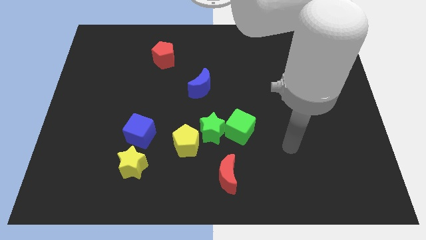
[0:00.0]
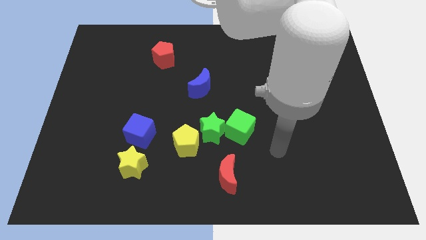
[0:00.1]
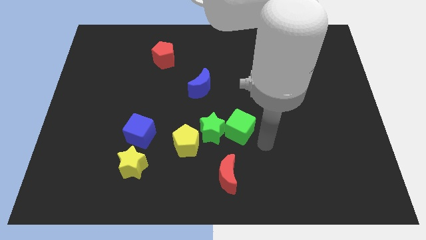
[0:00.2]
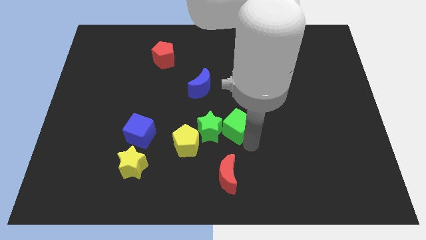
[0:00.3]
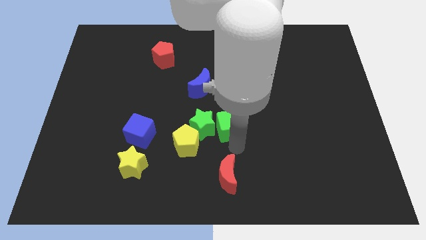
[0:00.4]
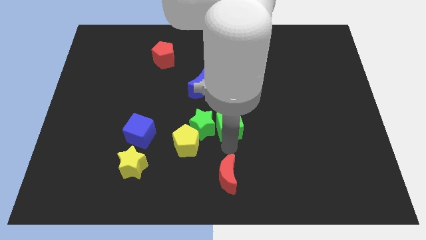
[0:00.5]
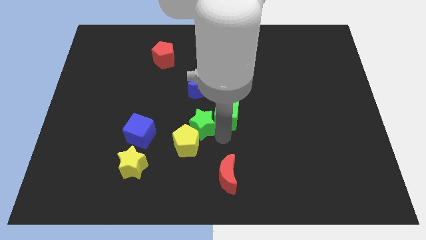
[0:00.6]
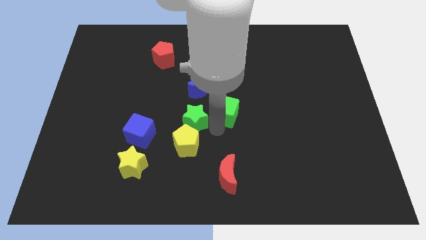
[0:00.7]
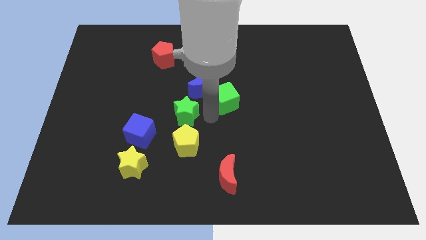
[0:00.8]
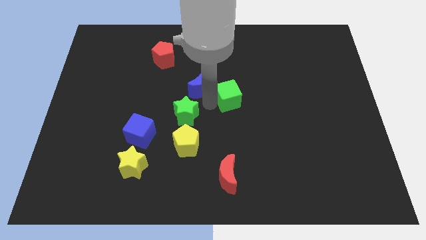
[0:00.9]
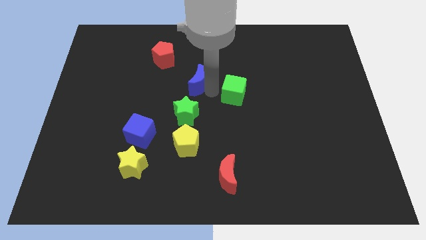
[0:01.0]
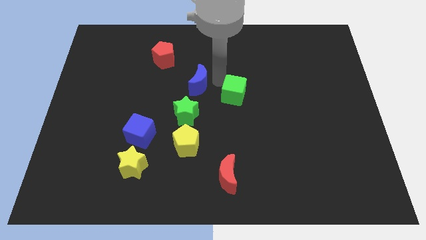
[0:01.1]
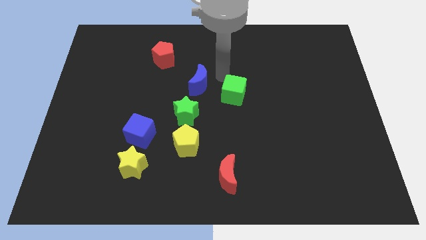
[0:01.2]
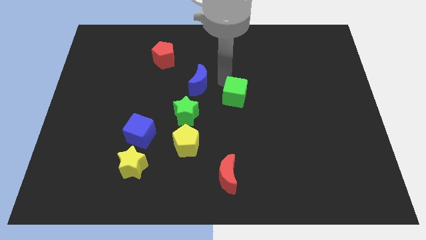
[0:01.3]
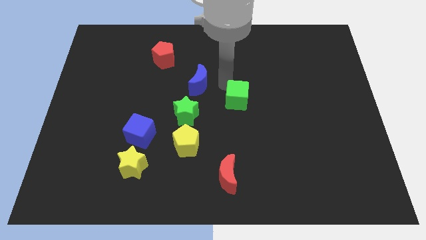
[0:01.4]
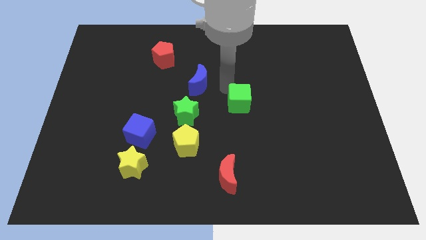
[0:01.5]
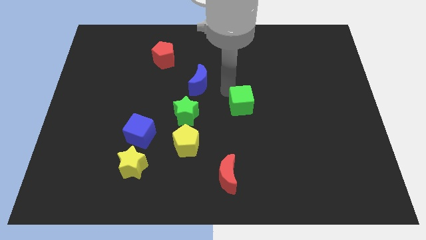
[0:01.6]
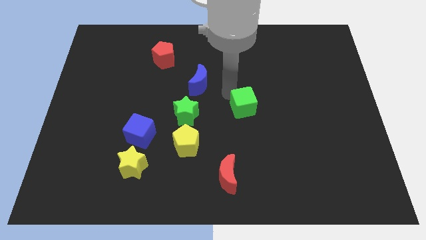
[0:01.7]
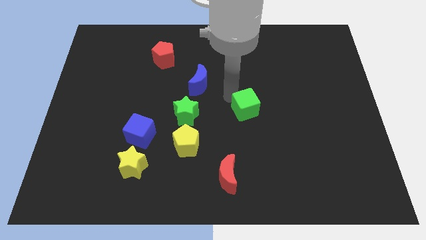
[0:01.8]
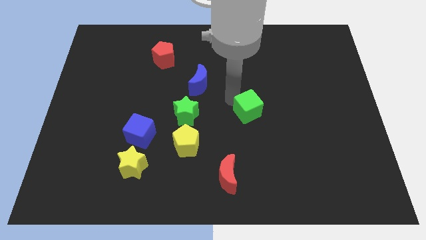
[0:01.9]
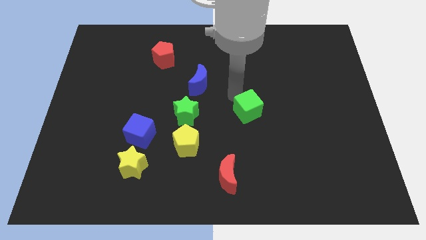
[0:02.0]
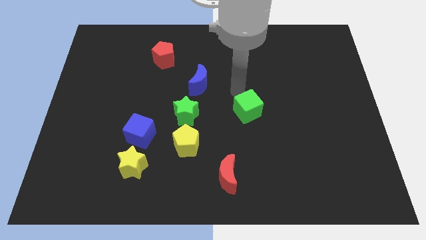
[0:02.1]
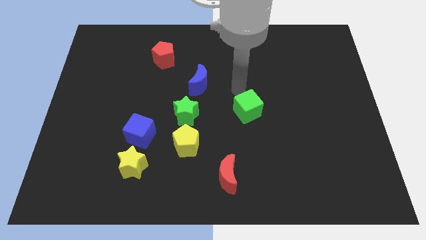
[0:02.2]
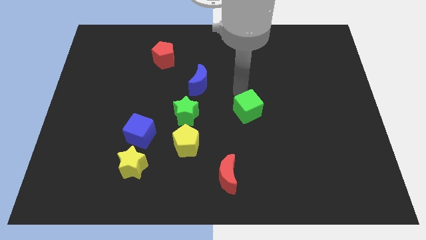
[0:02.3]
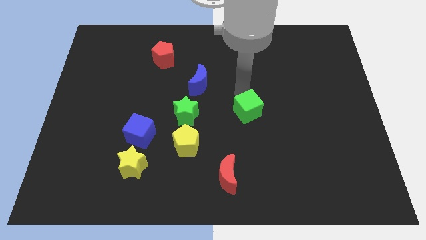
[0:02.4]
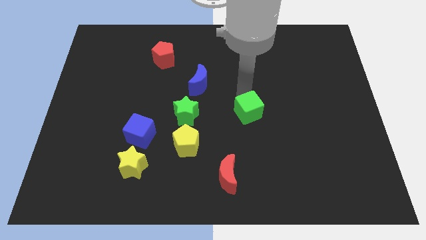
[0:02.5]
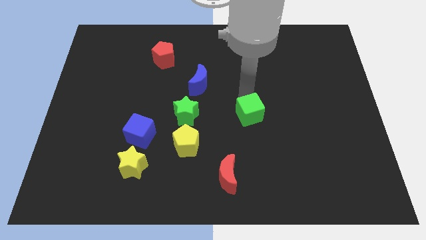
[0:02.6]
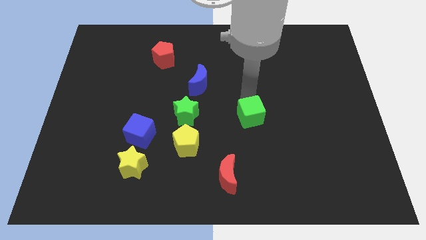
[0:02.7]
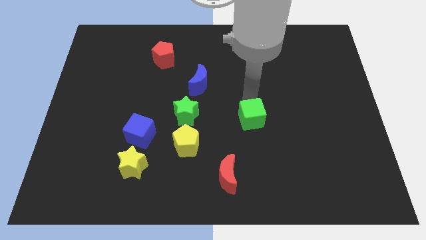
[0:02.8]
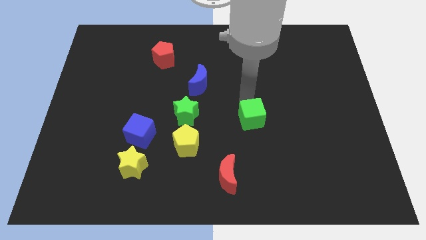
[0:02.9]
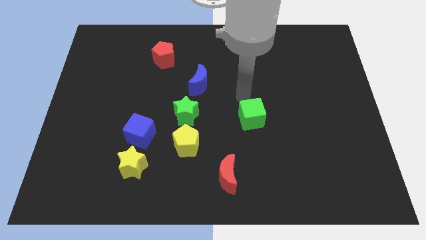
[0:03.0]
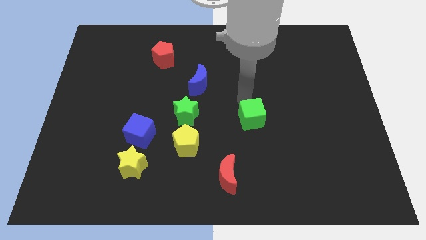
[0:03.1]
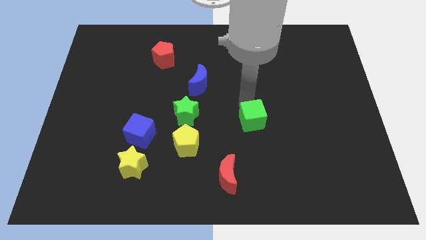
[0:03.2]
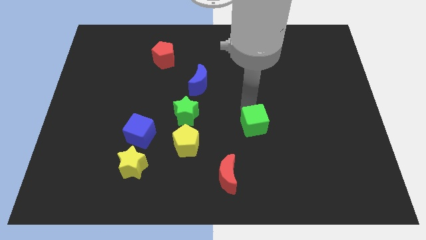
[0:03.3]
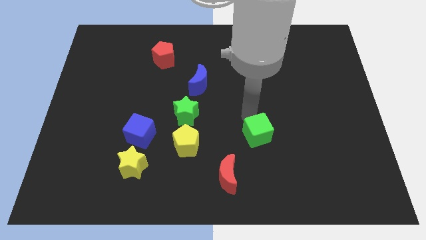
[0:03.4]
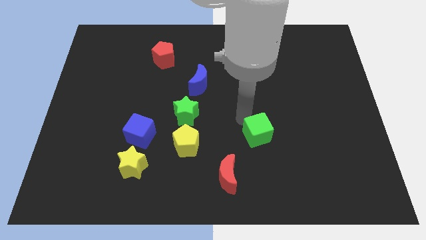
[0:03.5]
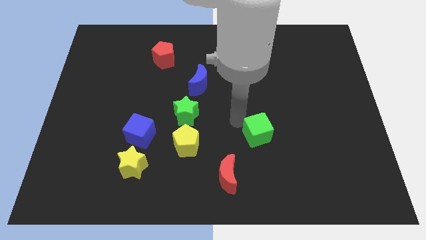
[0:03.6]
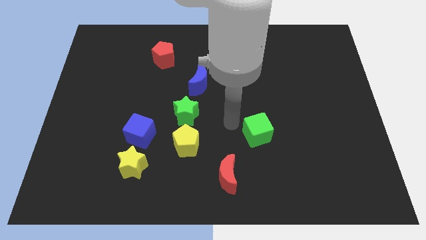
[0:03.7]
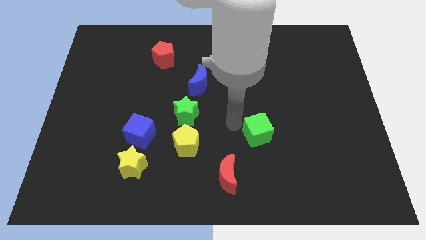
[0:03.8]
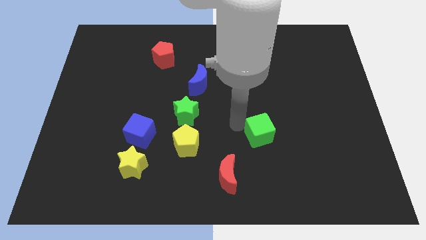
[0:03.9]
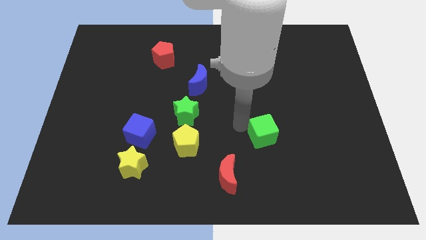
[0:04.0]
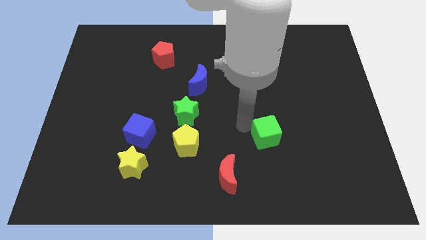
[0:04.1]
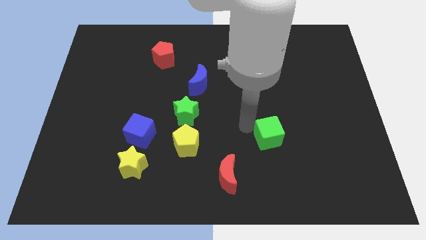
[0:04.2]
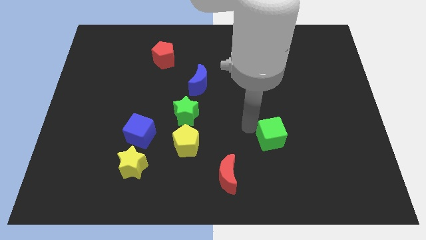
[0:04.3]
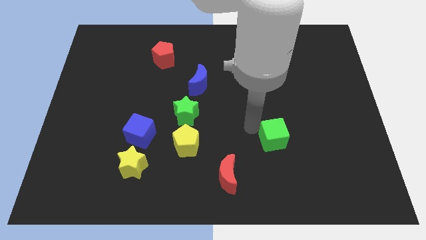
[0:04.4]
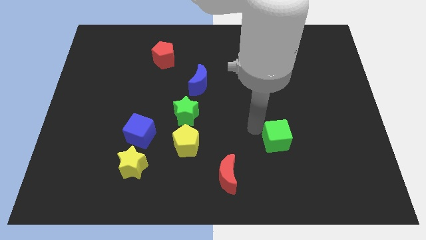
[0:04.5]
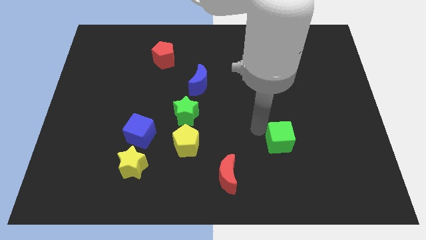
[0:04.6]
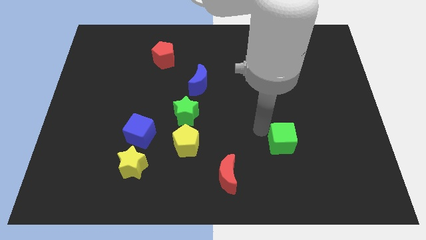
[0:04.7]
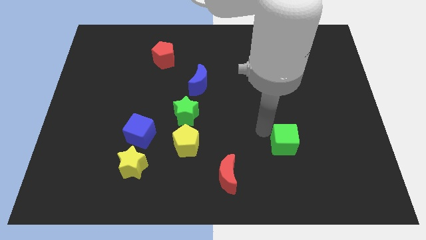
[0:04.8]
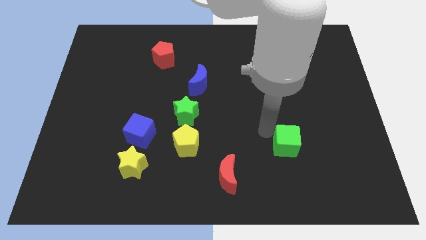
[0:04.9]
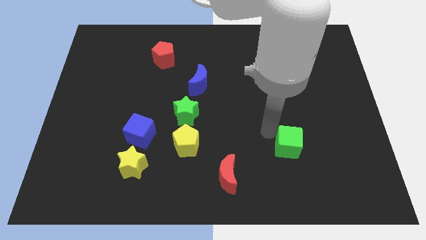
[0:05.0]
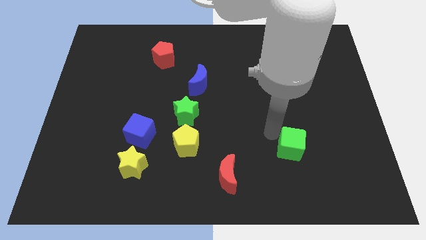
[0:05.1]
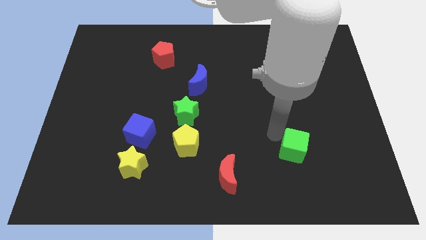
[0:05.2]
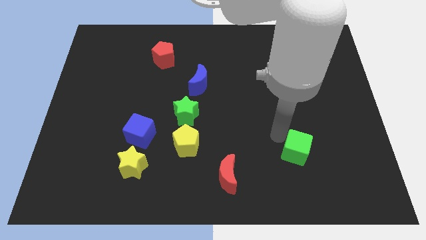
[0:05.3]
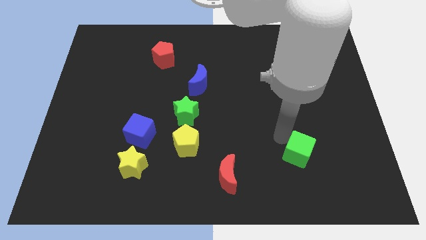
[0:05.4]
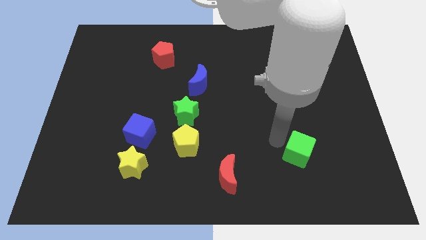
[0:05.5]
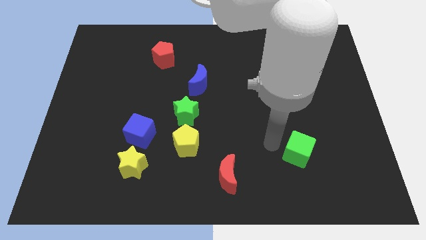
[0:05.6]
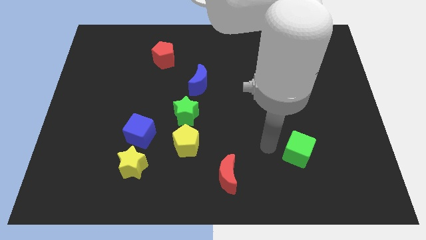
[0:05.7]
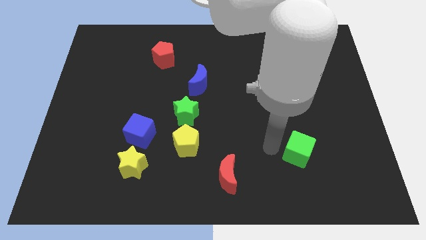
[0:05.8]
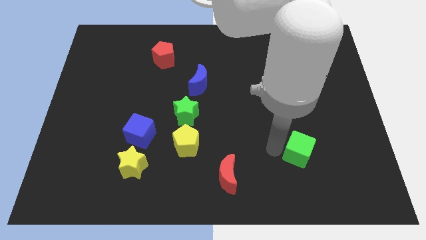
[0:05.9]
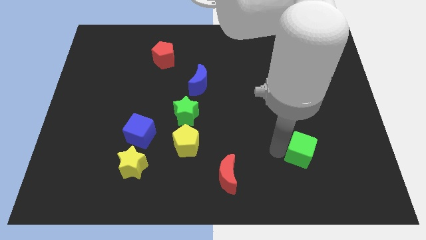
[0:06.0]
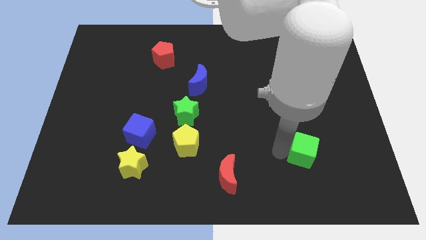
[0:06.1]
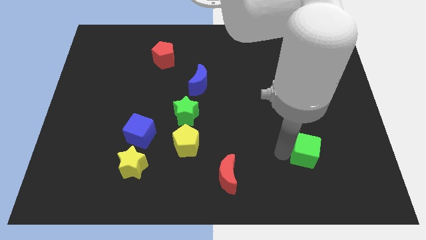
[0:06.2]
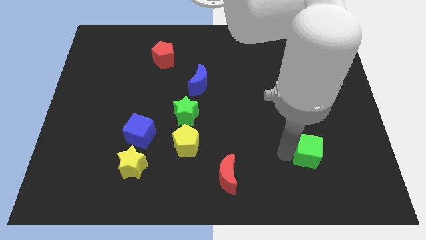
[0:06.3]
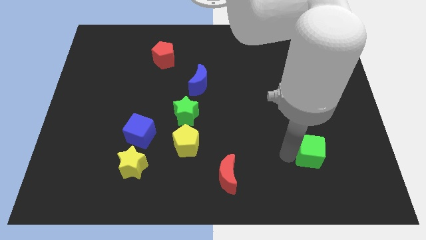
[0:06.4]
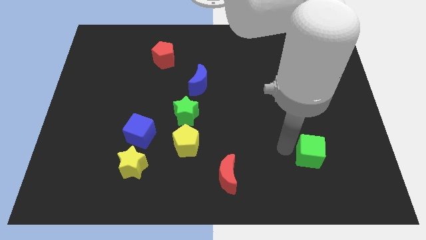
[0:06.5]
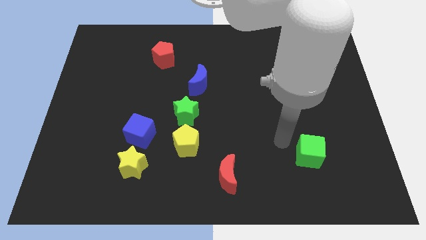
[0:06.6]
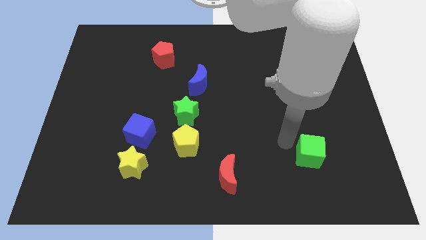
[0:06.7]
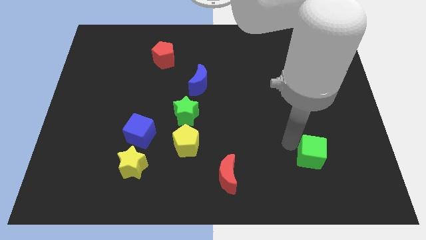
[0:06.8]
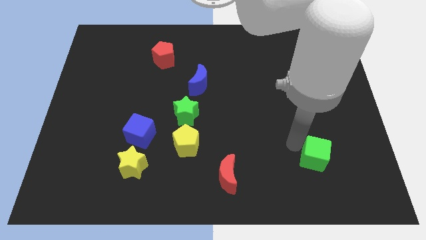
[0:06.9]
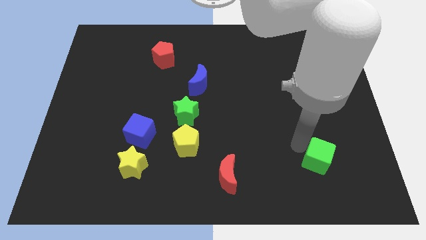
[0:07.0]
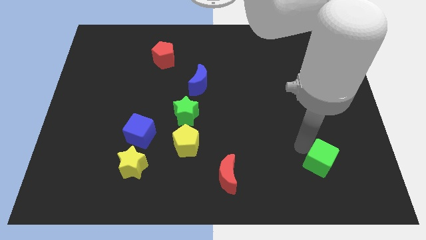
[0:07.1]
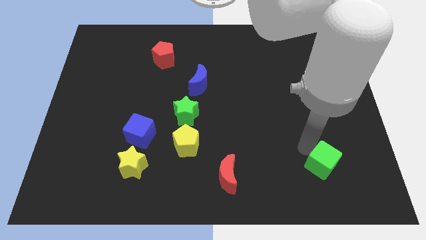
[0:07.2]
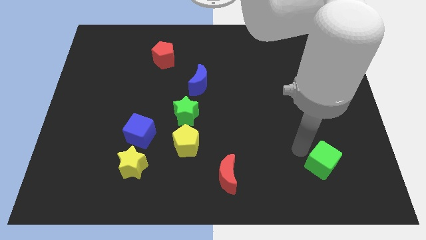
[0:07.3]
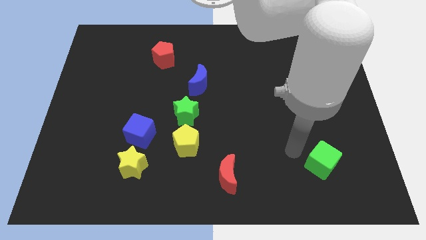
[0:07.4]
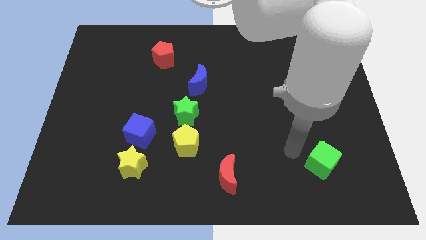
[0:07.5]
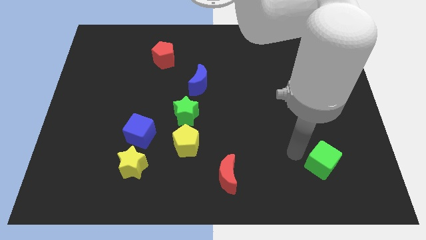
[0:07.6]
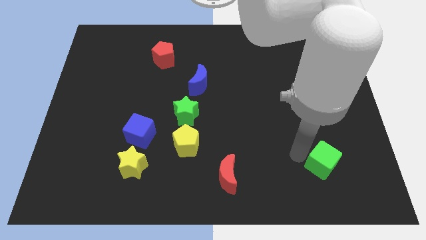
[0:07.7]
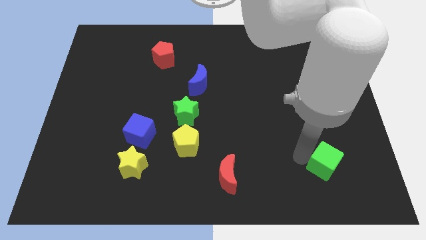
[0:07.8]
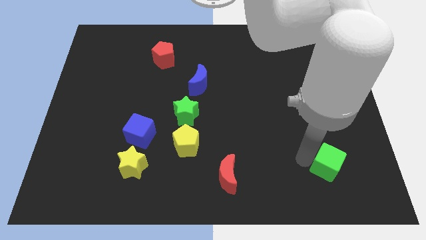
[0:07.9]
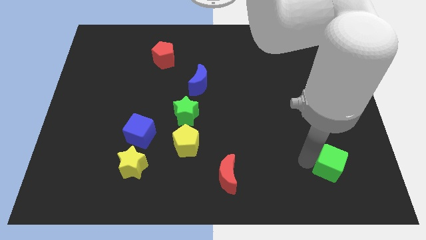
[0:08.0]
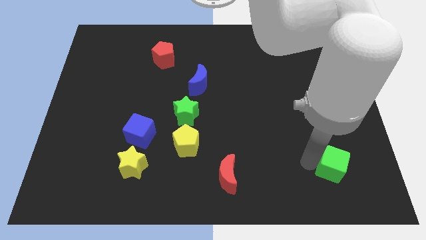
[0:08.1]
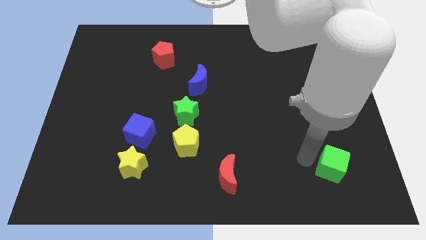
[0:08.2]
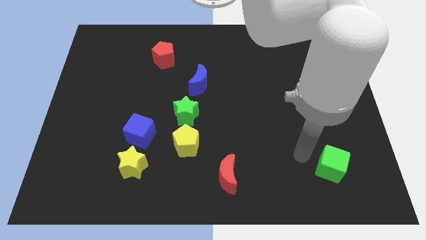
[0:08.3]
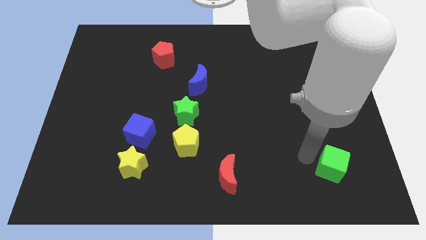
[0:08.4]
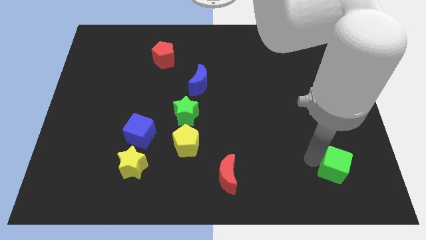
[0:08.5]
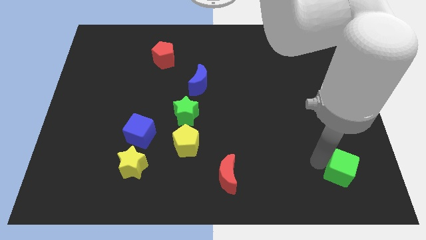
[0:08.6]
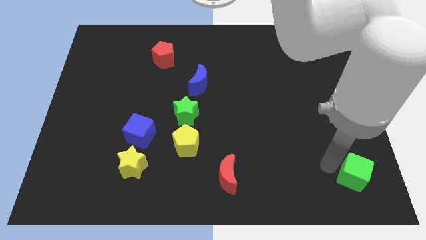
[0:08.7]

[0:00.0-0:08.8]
slide the green cube to the bottom right of the board
